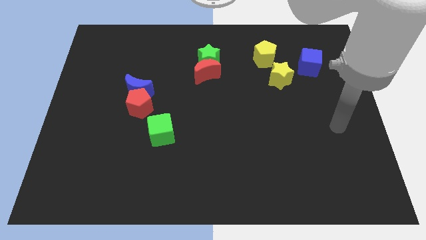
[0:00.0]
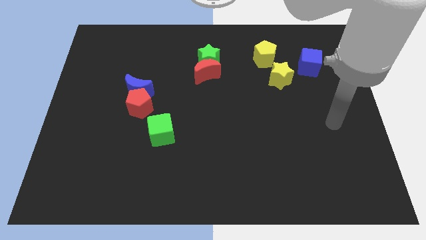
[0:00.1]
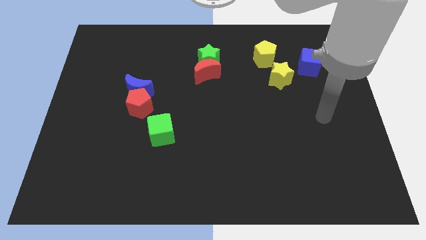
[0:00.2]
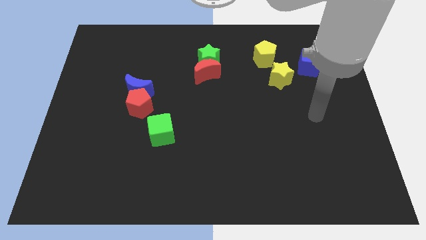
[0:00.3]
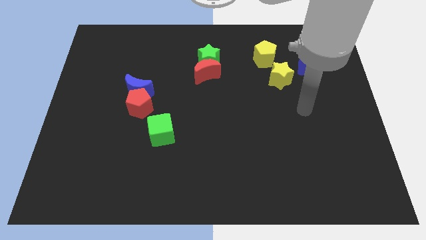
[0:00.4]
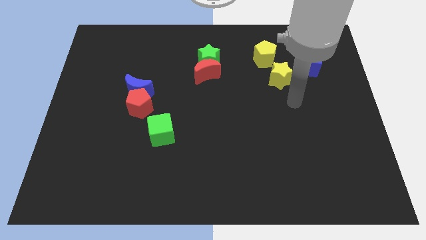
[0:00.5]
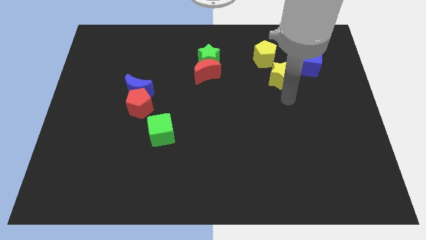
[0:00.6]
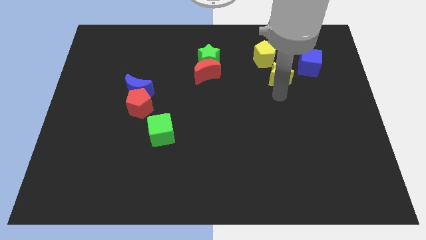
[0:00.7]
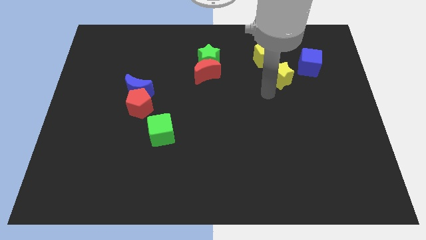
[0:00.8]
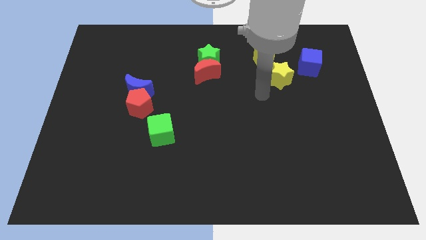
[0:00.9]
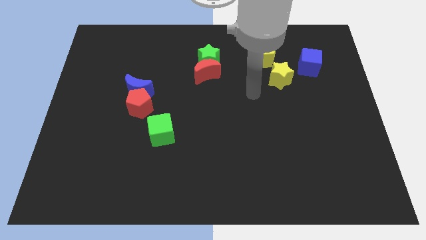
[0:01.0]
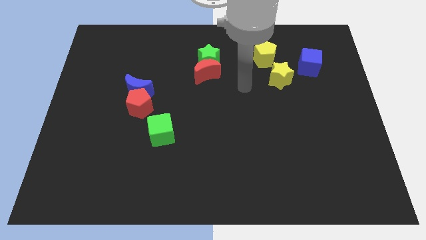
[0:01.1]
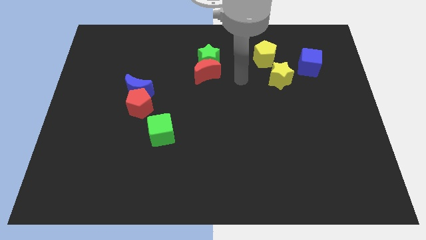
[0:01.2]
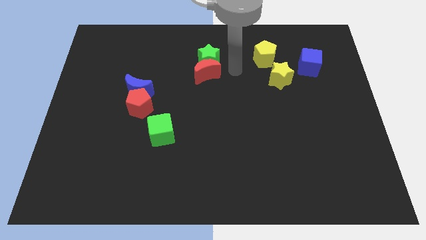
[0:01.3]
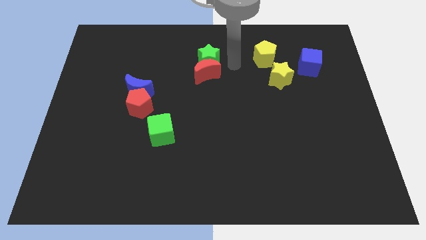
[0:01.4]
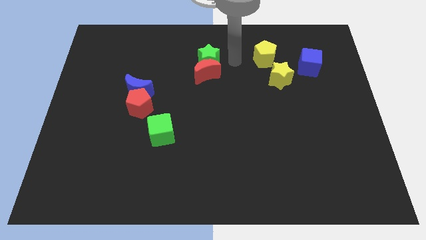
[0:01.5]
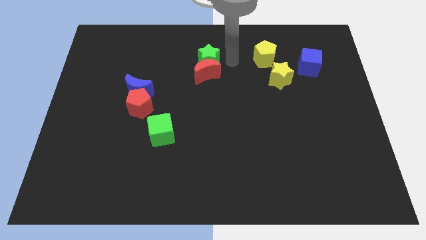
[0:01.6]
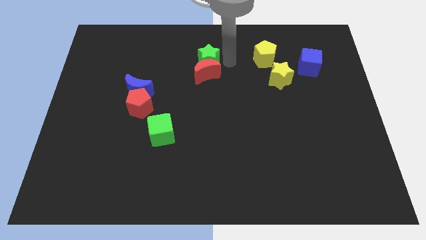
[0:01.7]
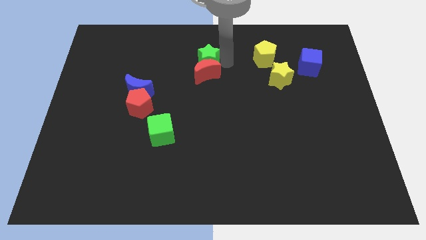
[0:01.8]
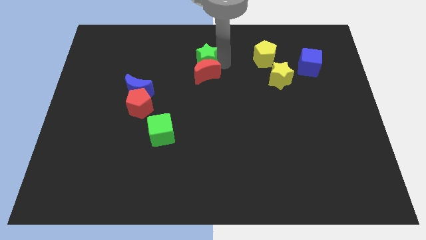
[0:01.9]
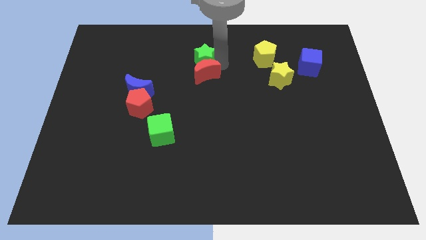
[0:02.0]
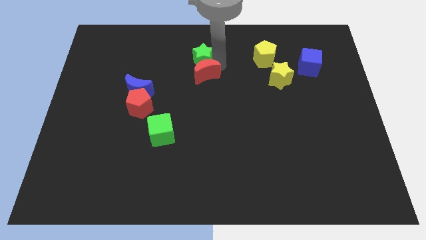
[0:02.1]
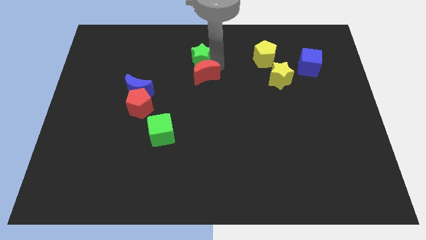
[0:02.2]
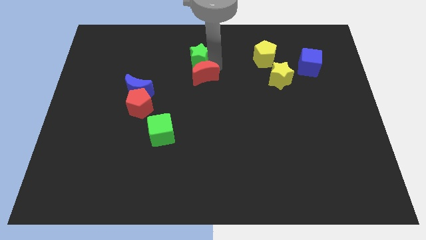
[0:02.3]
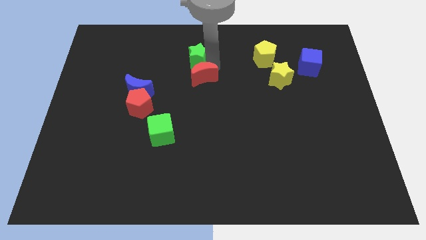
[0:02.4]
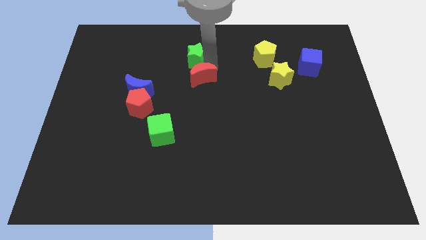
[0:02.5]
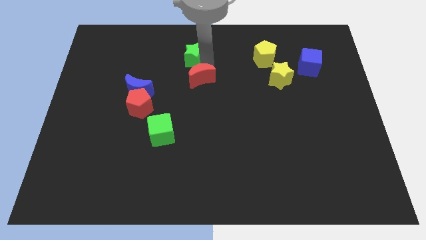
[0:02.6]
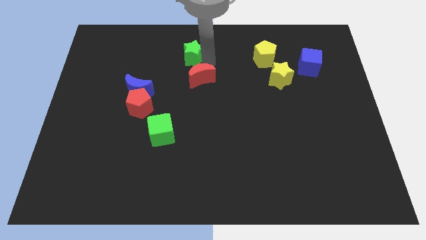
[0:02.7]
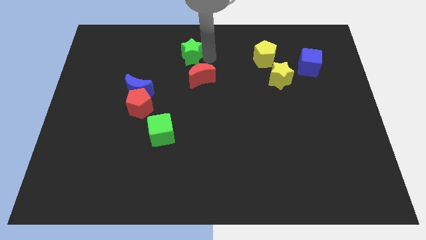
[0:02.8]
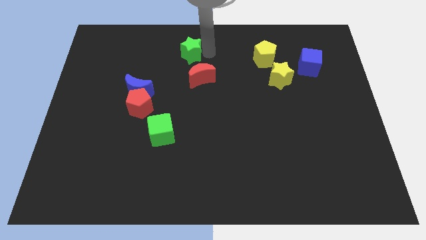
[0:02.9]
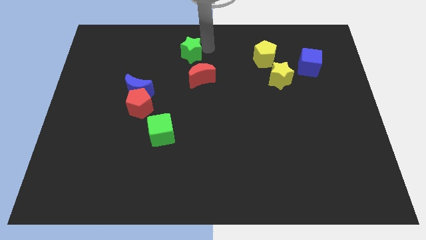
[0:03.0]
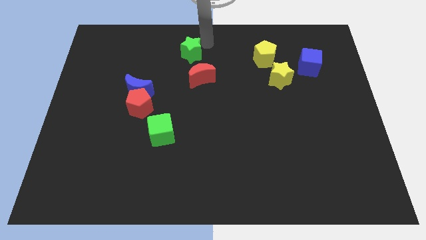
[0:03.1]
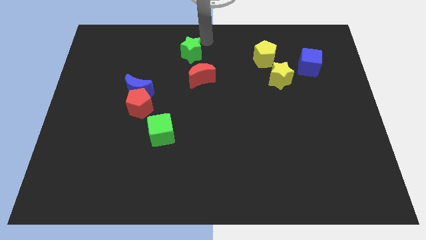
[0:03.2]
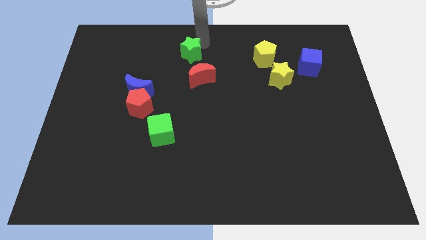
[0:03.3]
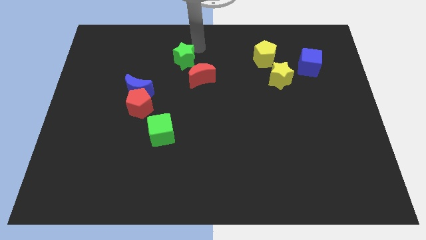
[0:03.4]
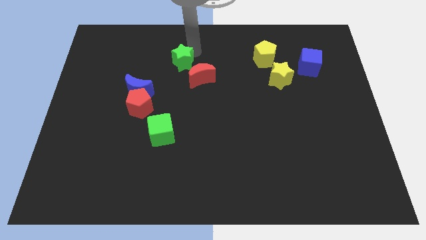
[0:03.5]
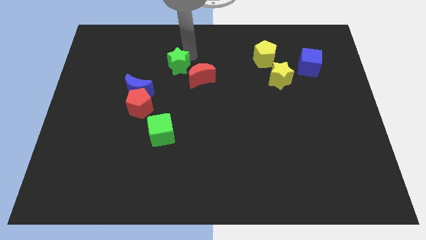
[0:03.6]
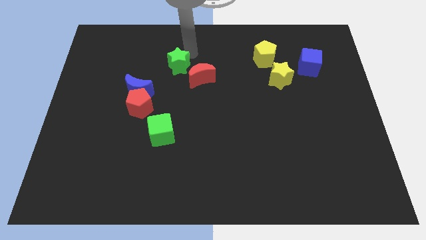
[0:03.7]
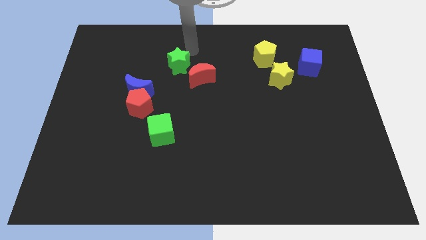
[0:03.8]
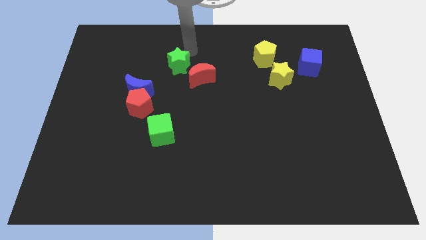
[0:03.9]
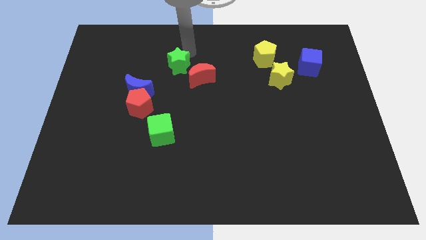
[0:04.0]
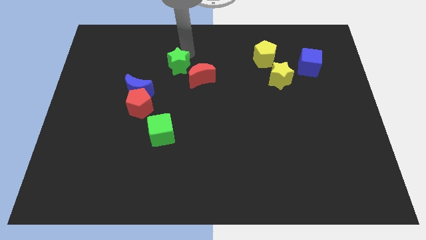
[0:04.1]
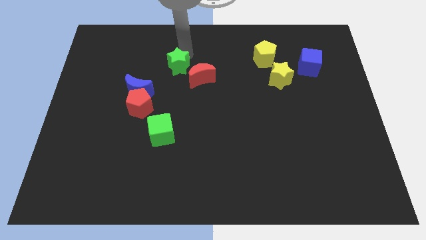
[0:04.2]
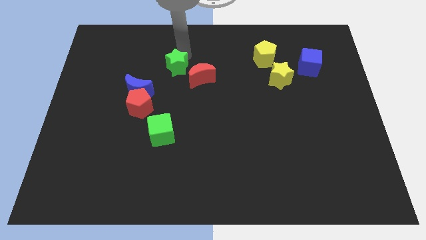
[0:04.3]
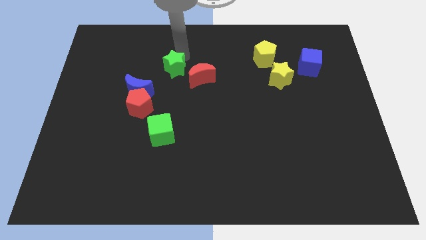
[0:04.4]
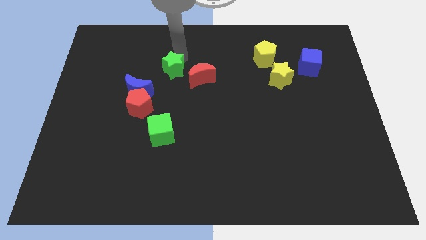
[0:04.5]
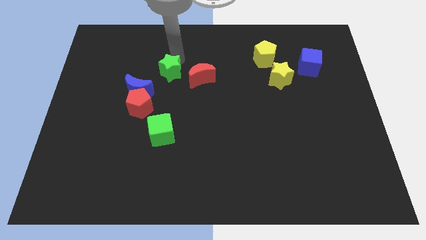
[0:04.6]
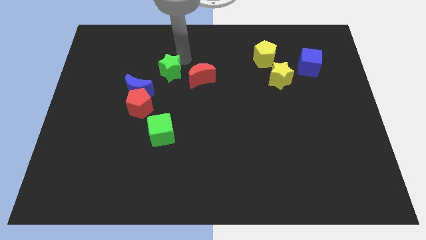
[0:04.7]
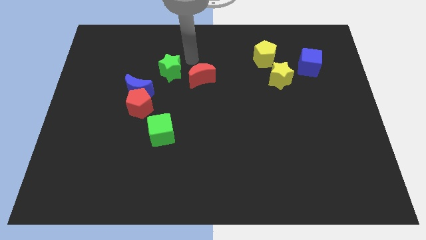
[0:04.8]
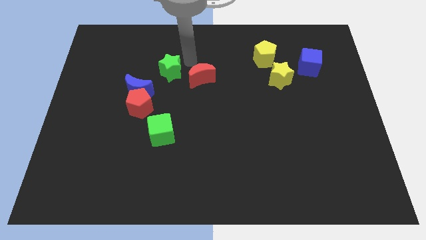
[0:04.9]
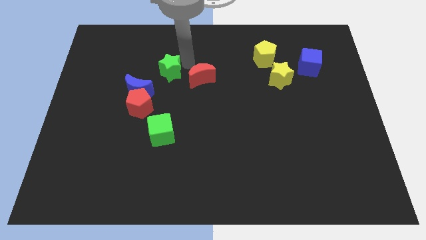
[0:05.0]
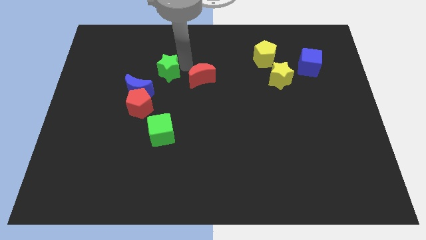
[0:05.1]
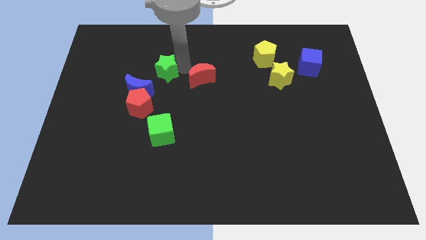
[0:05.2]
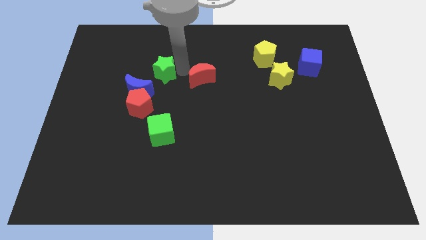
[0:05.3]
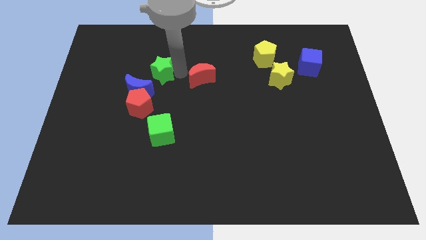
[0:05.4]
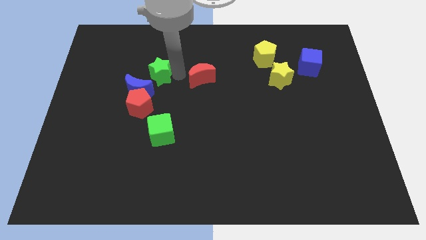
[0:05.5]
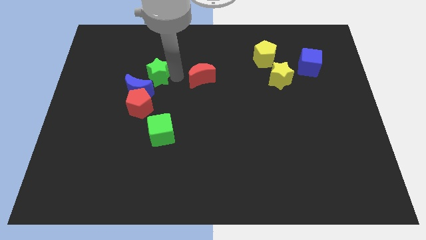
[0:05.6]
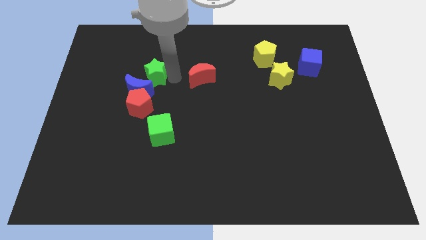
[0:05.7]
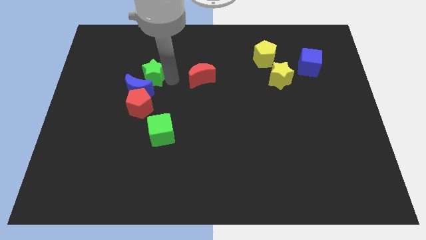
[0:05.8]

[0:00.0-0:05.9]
move the green star to the blue moon
